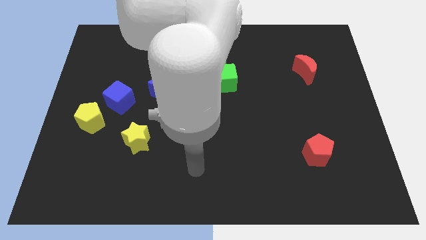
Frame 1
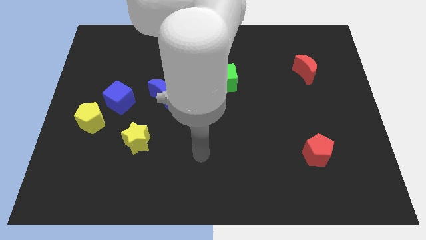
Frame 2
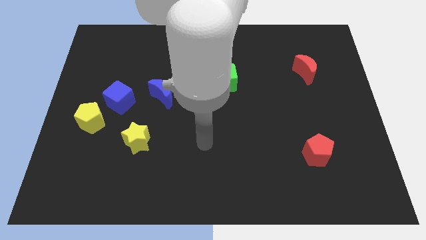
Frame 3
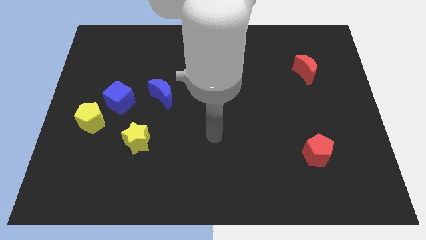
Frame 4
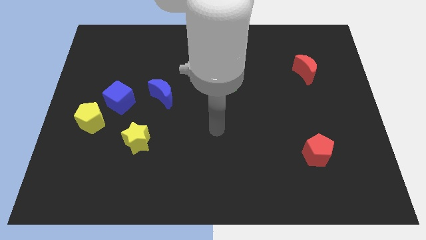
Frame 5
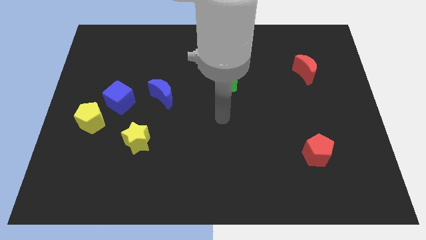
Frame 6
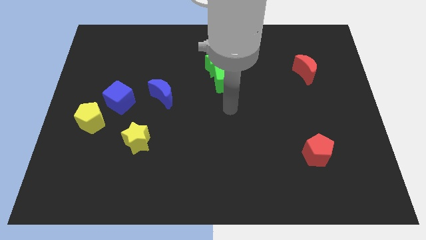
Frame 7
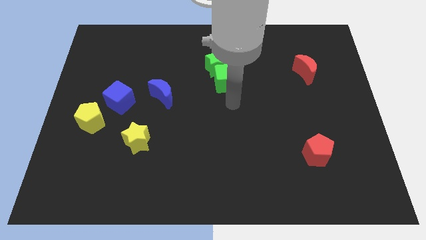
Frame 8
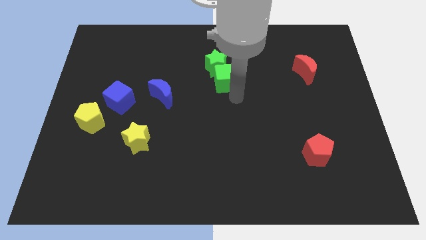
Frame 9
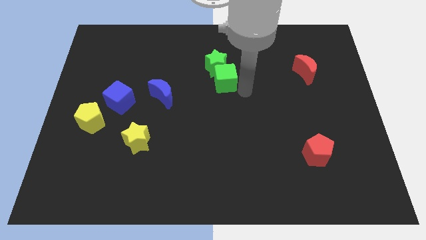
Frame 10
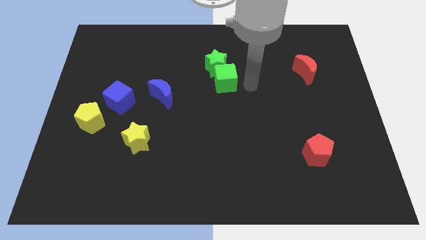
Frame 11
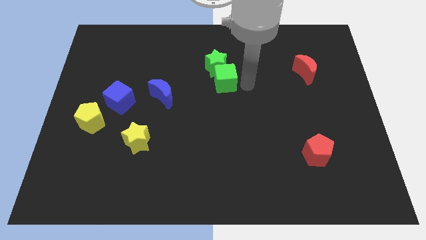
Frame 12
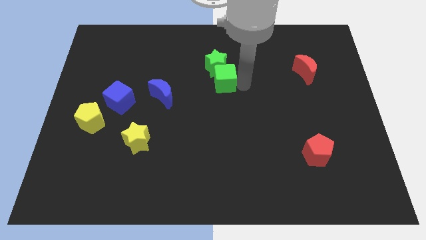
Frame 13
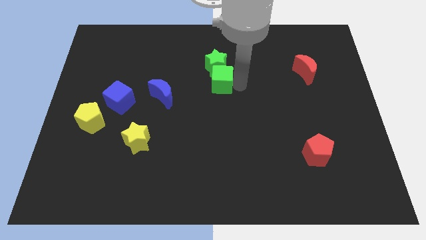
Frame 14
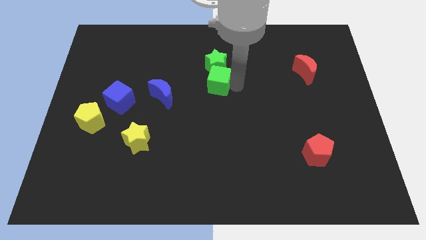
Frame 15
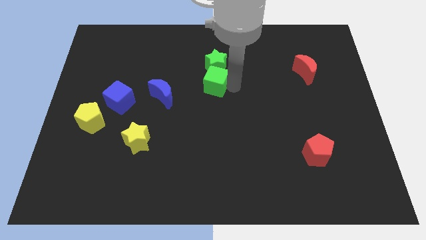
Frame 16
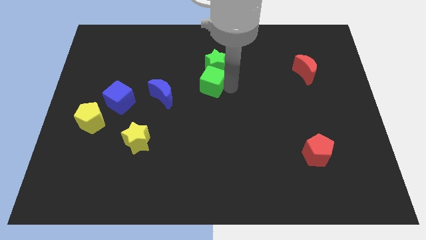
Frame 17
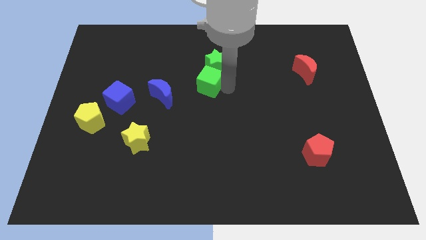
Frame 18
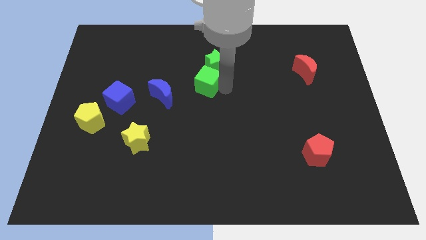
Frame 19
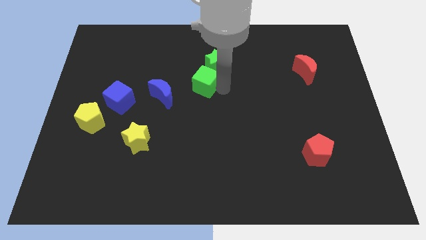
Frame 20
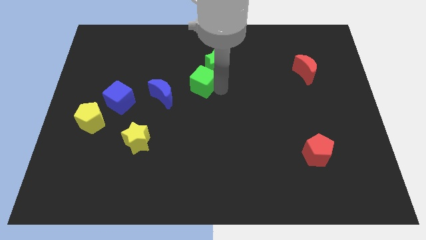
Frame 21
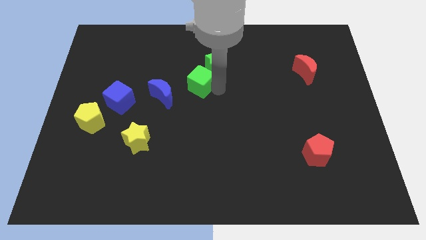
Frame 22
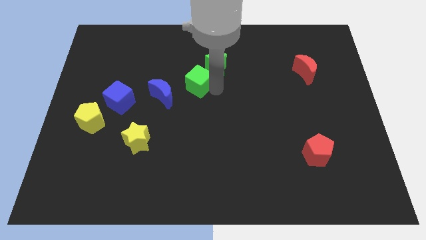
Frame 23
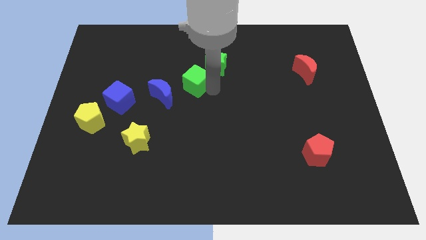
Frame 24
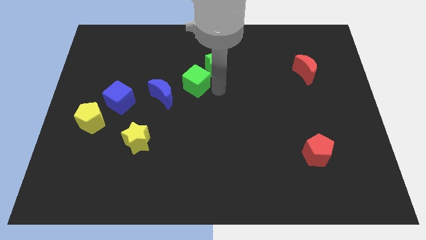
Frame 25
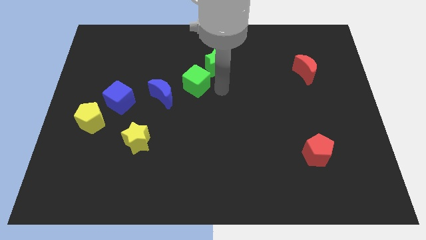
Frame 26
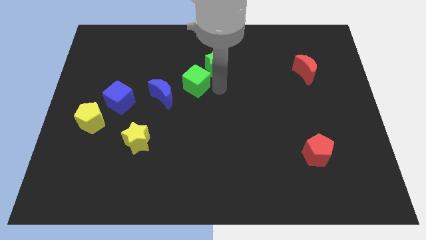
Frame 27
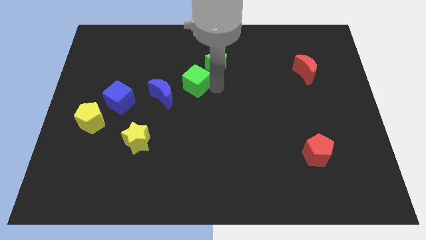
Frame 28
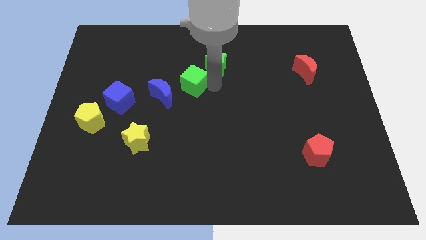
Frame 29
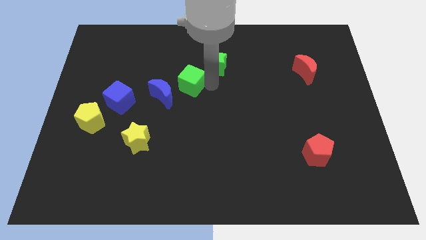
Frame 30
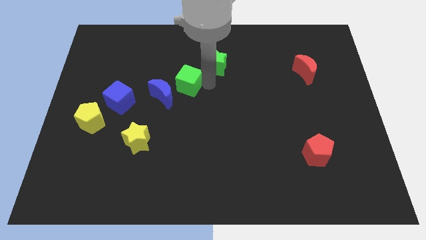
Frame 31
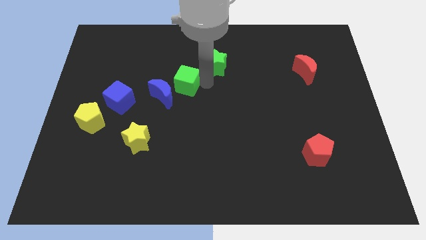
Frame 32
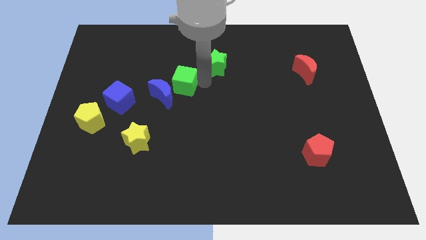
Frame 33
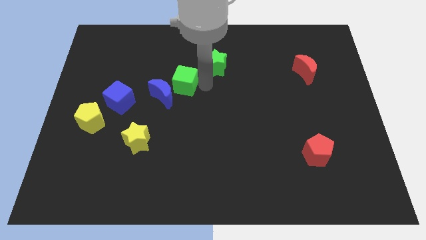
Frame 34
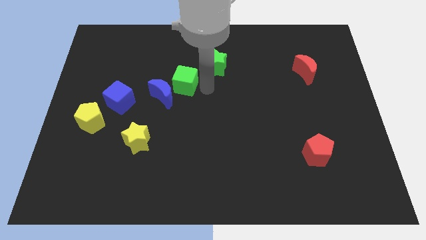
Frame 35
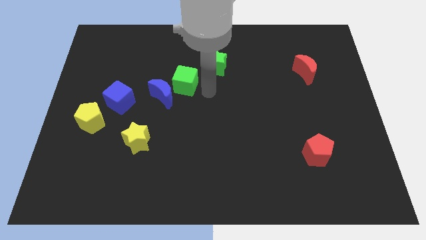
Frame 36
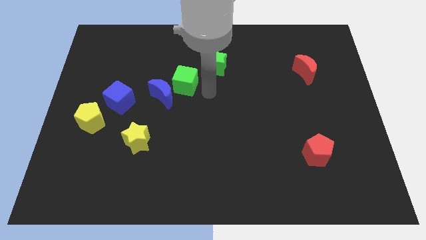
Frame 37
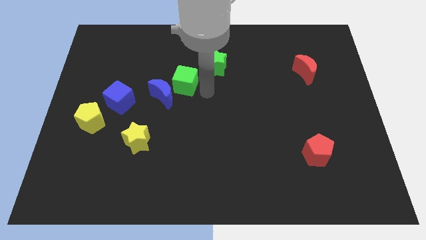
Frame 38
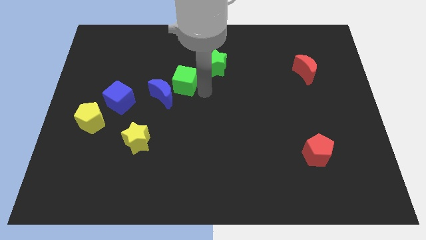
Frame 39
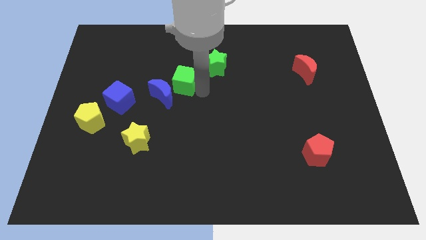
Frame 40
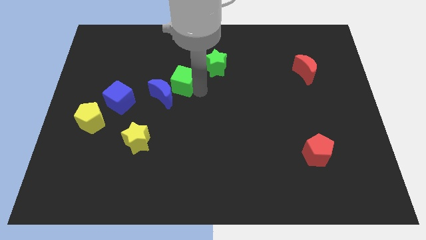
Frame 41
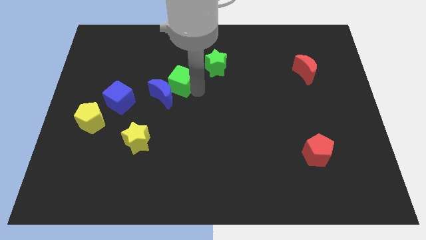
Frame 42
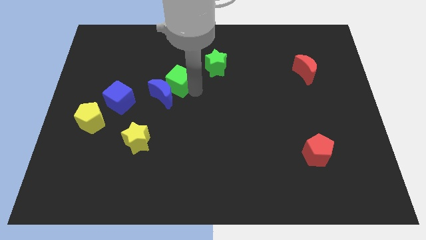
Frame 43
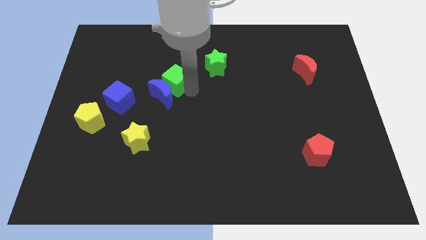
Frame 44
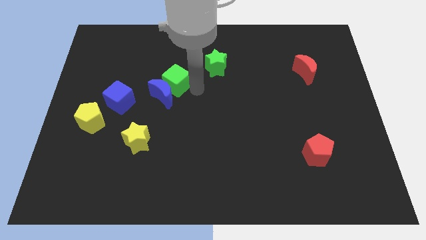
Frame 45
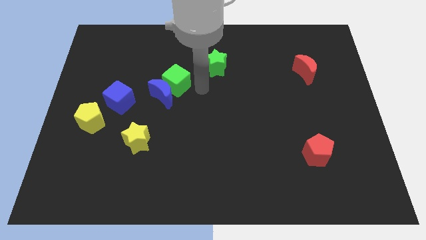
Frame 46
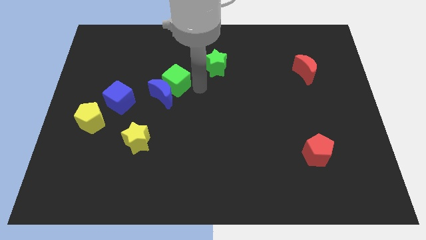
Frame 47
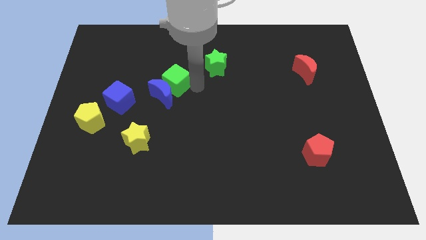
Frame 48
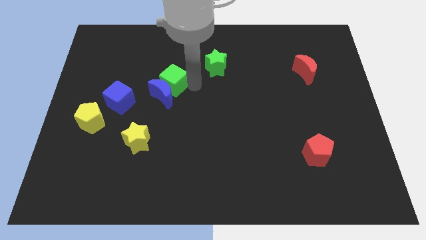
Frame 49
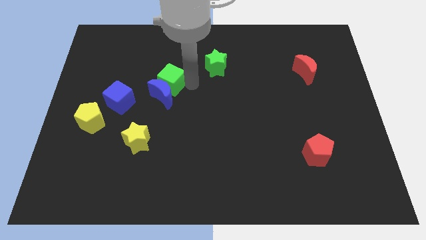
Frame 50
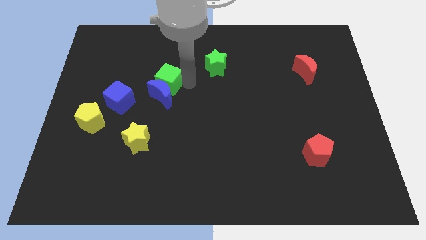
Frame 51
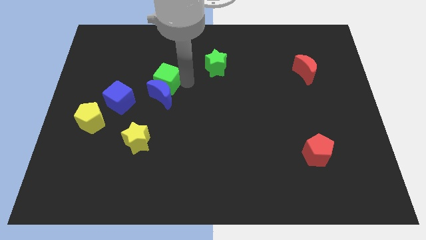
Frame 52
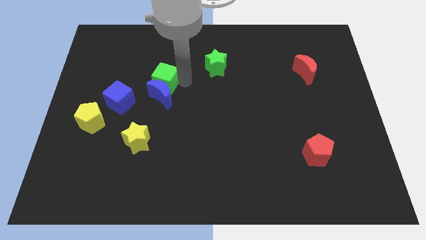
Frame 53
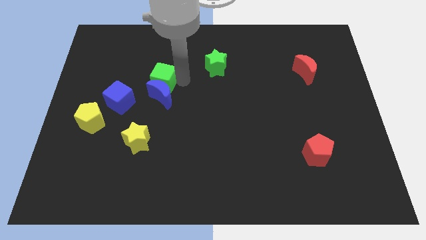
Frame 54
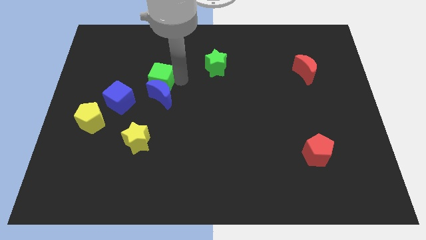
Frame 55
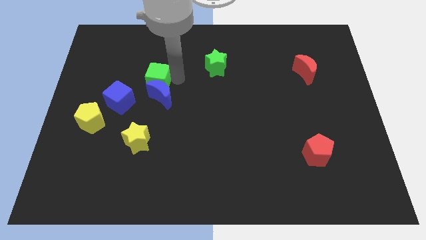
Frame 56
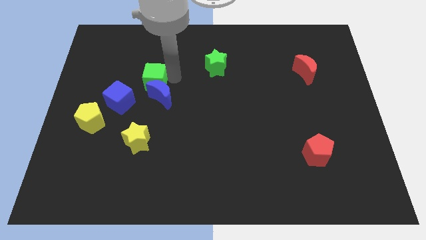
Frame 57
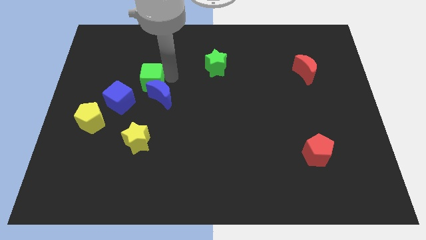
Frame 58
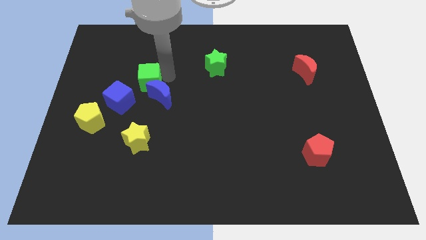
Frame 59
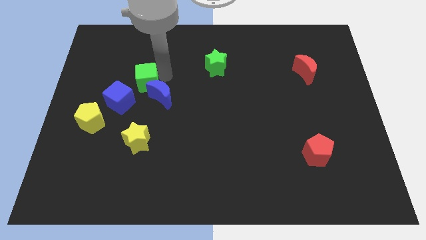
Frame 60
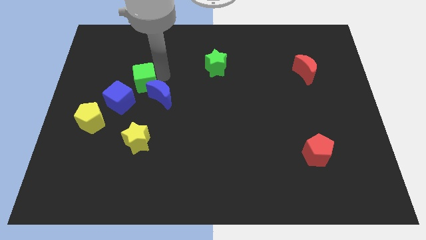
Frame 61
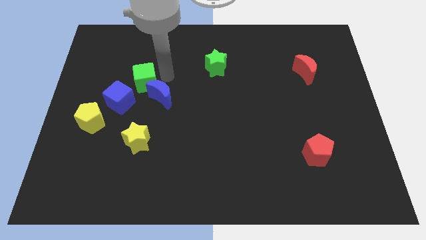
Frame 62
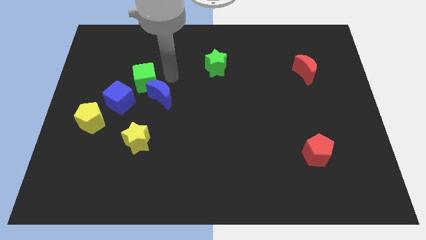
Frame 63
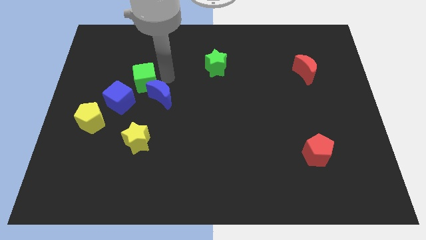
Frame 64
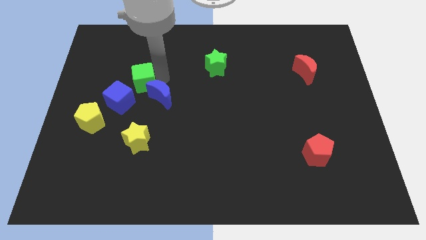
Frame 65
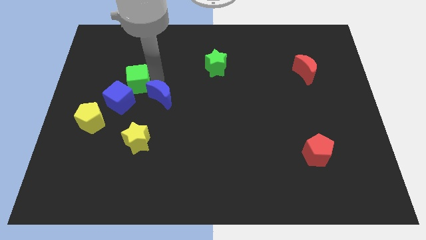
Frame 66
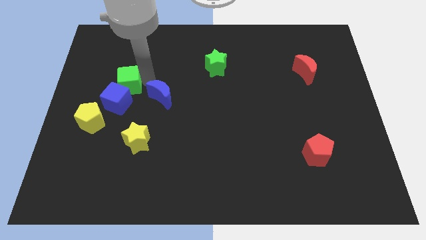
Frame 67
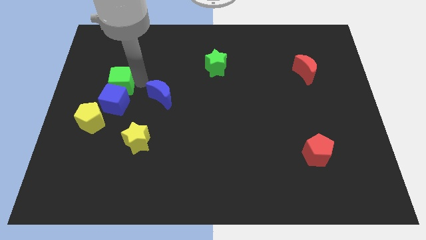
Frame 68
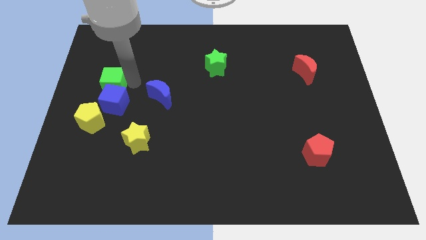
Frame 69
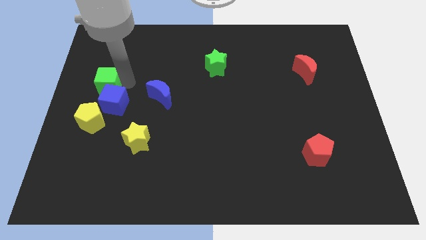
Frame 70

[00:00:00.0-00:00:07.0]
put the green cube to the left side
